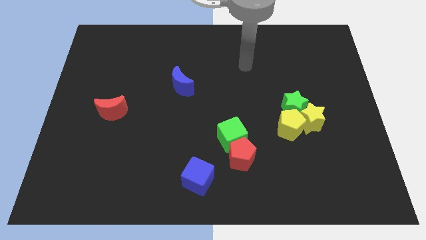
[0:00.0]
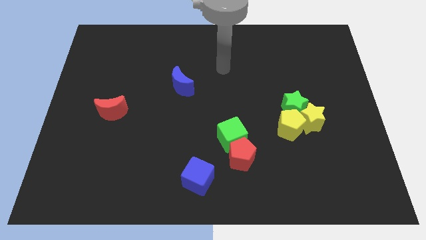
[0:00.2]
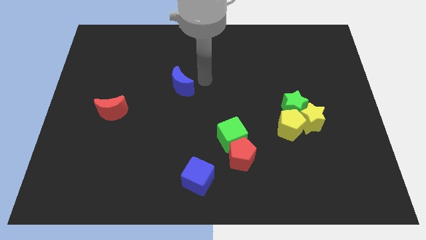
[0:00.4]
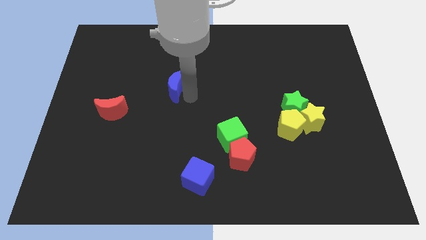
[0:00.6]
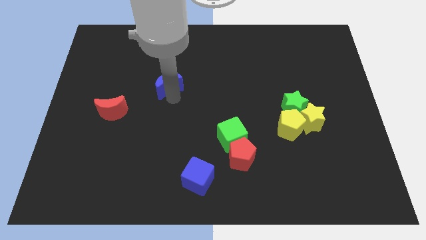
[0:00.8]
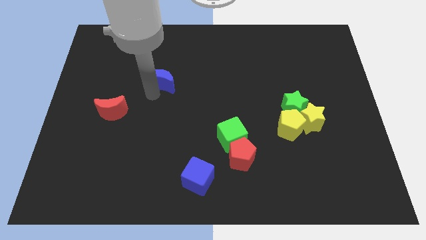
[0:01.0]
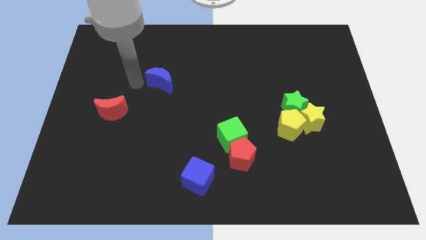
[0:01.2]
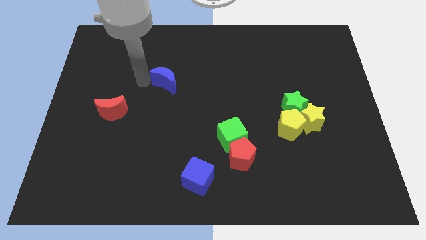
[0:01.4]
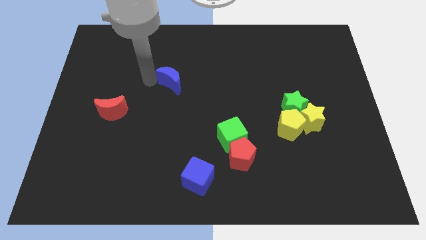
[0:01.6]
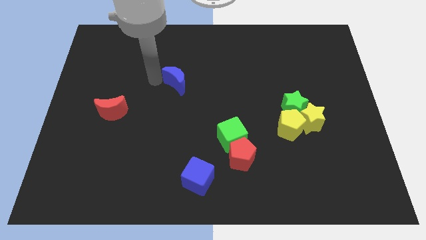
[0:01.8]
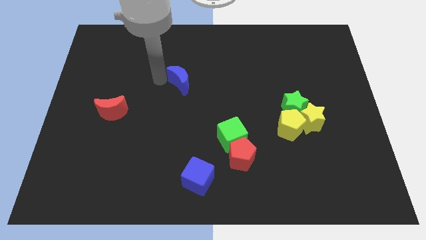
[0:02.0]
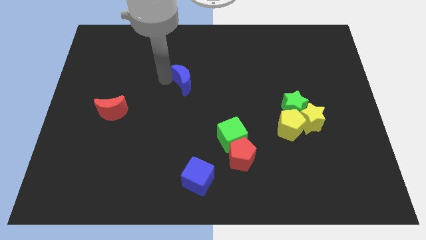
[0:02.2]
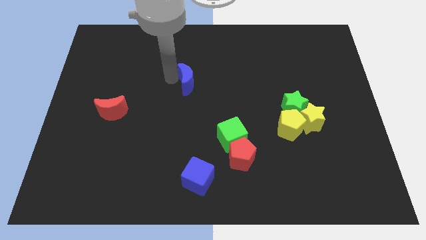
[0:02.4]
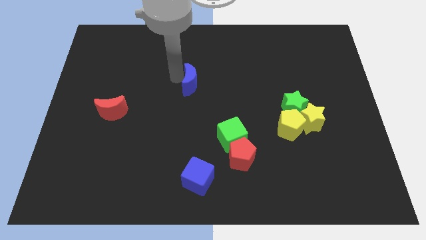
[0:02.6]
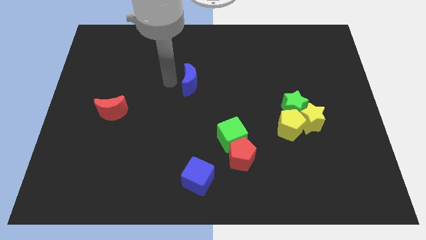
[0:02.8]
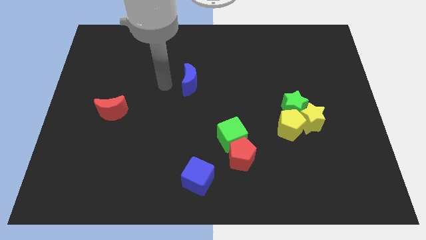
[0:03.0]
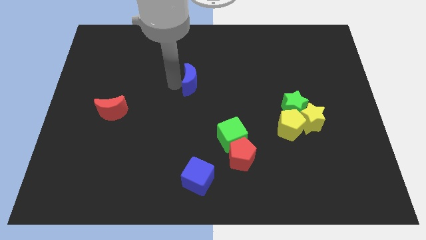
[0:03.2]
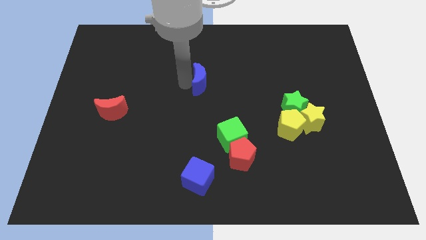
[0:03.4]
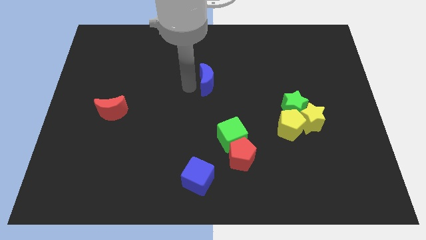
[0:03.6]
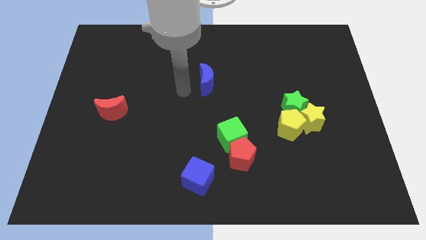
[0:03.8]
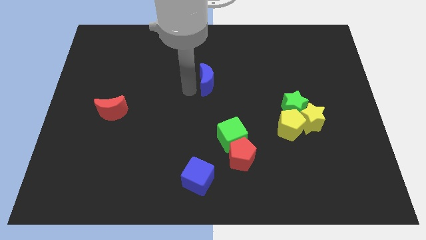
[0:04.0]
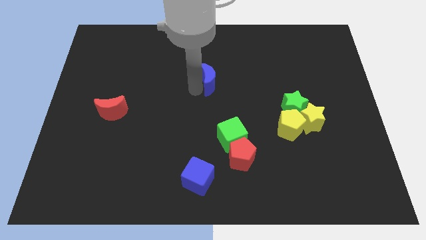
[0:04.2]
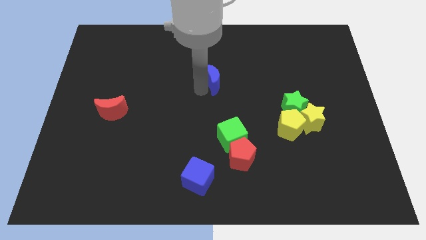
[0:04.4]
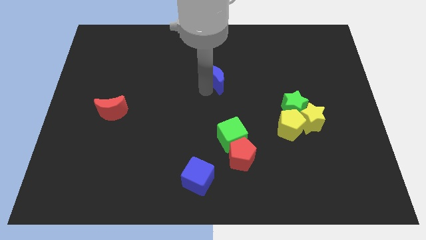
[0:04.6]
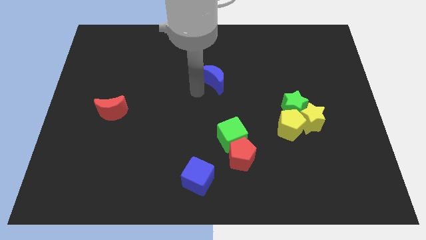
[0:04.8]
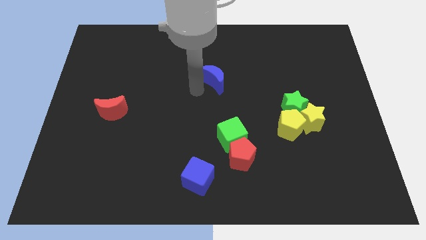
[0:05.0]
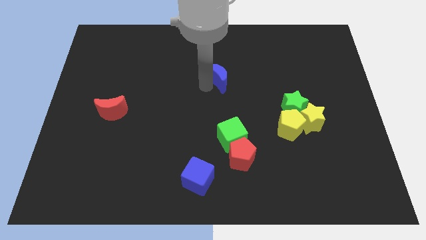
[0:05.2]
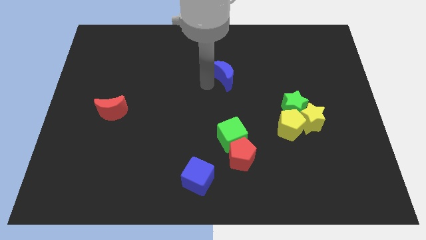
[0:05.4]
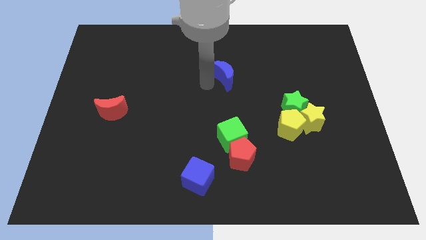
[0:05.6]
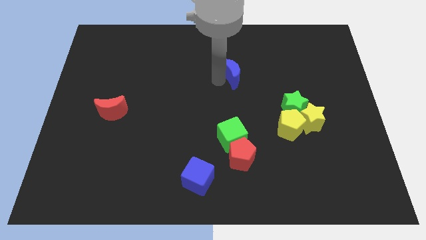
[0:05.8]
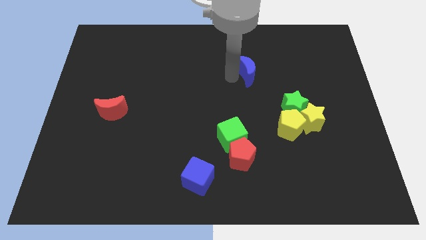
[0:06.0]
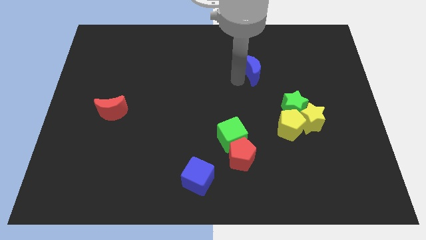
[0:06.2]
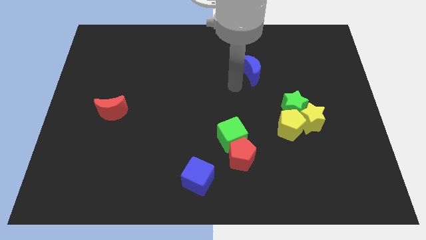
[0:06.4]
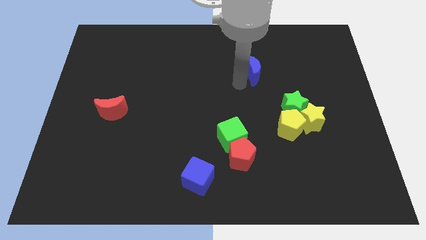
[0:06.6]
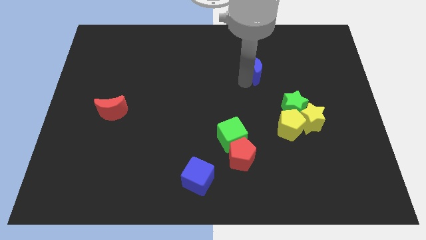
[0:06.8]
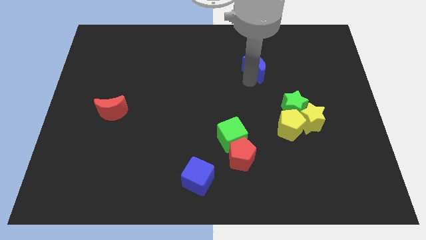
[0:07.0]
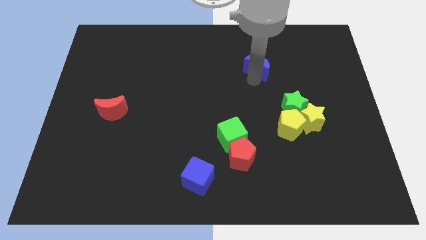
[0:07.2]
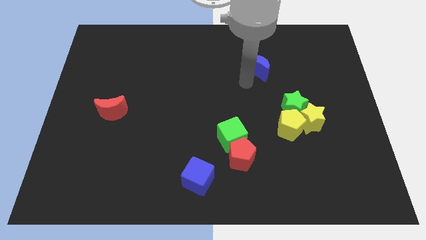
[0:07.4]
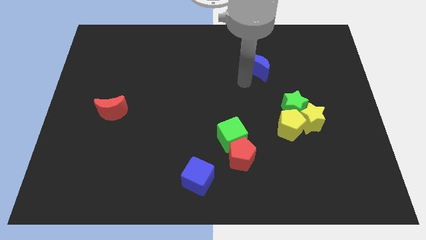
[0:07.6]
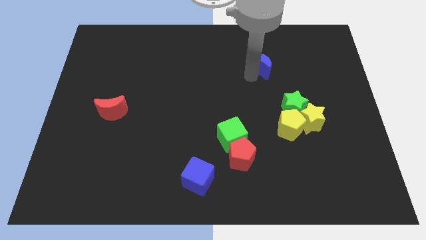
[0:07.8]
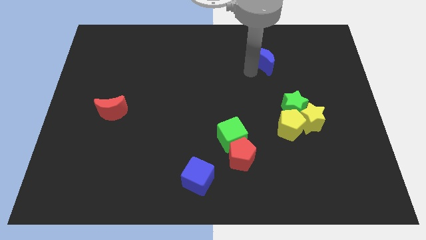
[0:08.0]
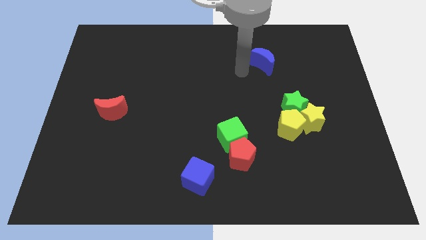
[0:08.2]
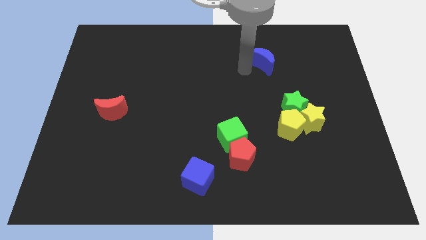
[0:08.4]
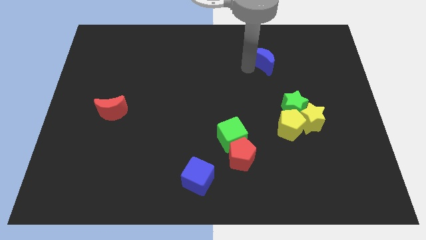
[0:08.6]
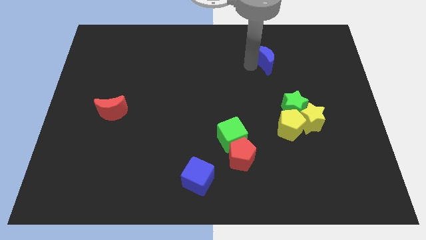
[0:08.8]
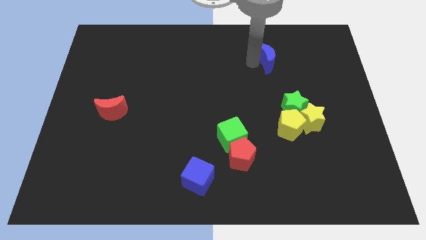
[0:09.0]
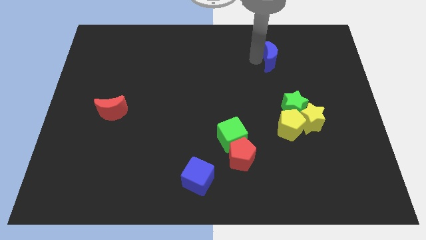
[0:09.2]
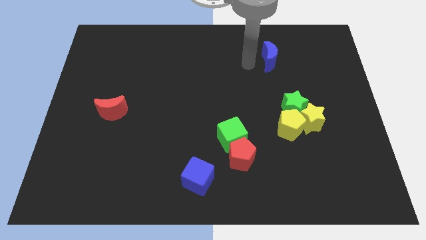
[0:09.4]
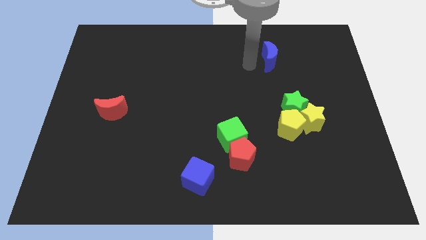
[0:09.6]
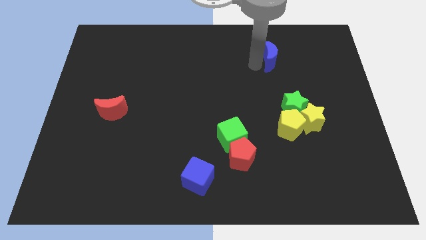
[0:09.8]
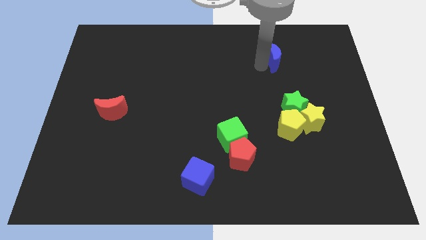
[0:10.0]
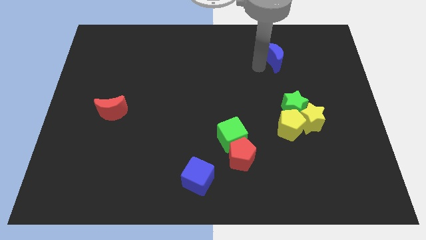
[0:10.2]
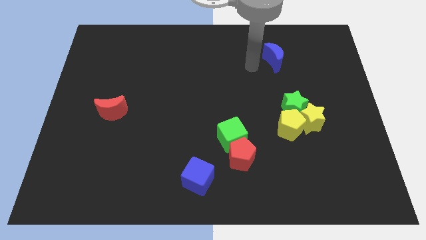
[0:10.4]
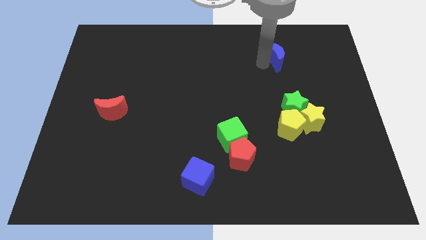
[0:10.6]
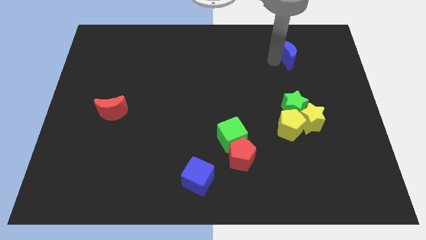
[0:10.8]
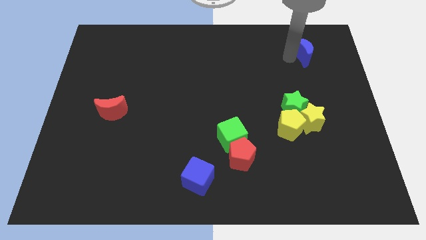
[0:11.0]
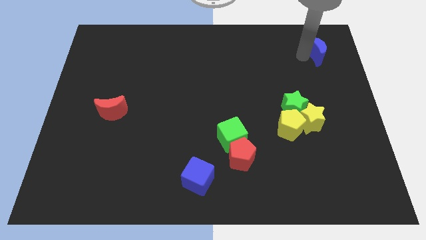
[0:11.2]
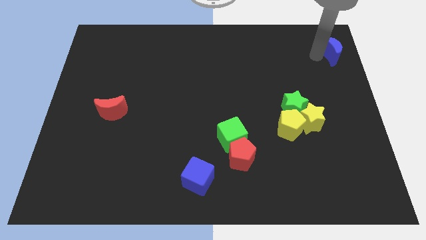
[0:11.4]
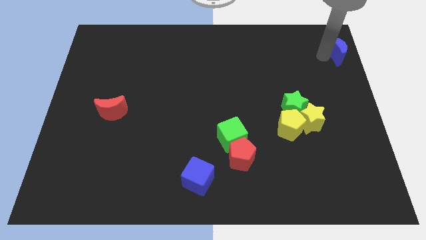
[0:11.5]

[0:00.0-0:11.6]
push the blue moon to the top right of the board
